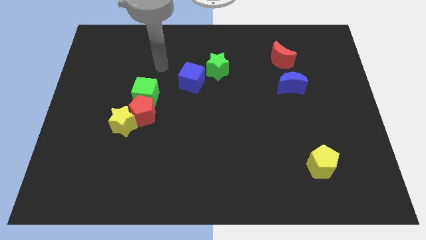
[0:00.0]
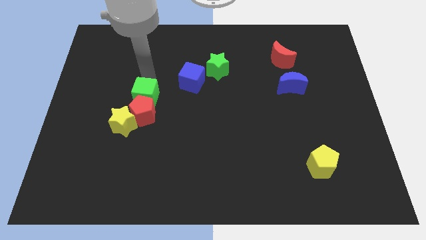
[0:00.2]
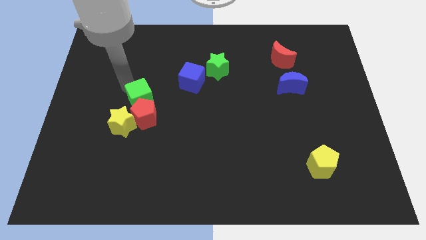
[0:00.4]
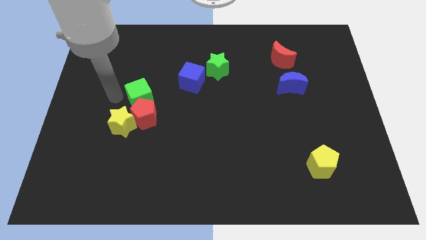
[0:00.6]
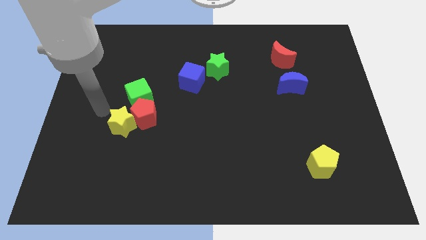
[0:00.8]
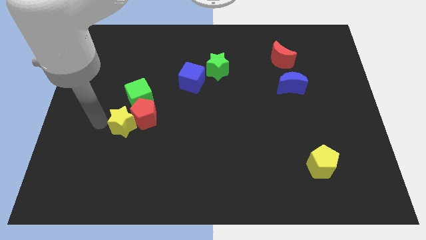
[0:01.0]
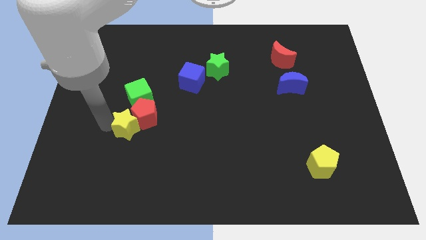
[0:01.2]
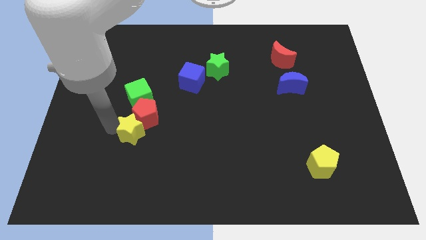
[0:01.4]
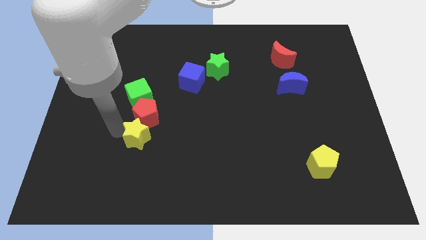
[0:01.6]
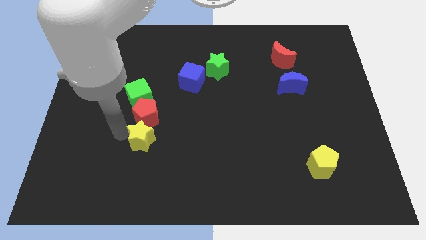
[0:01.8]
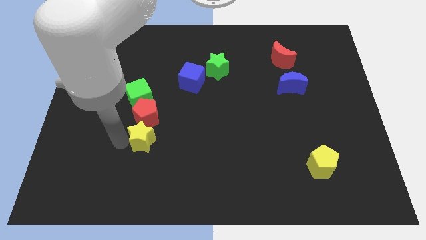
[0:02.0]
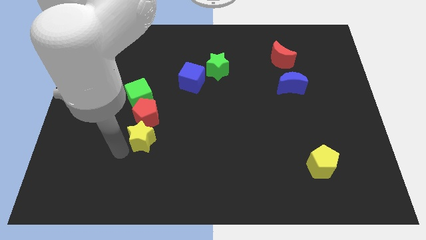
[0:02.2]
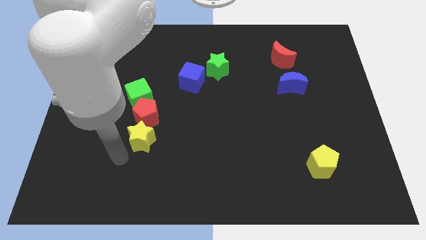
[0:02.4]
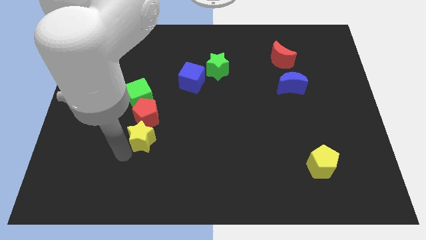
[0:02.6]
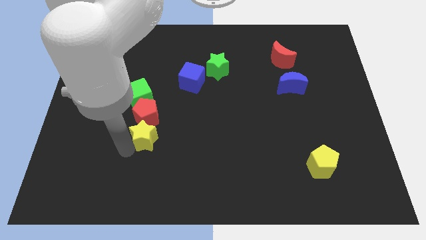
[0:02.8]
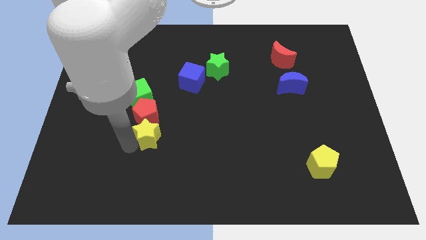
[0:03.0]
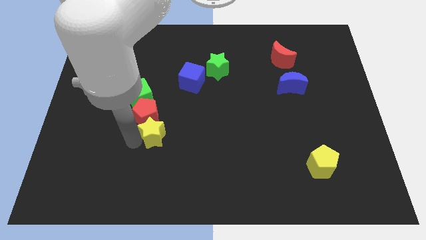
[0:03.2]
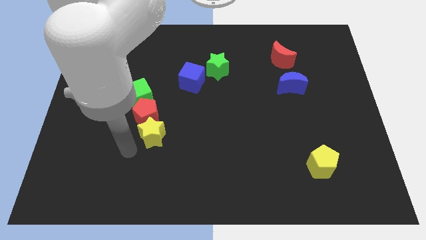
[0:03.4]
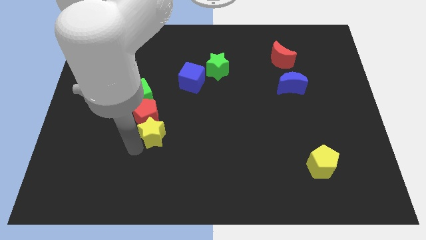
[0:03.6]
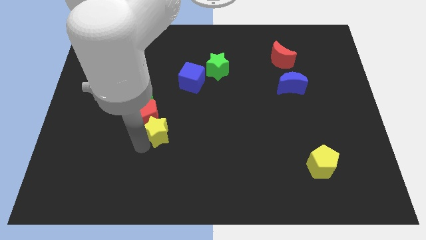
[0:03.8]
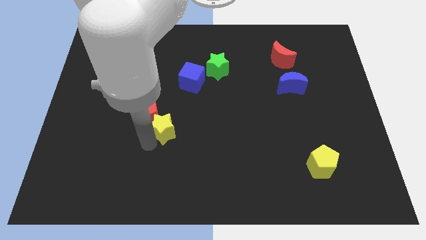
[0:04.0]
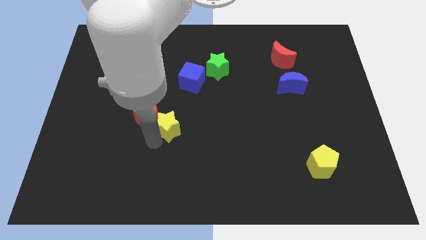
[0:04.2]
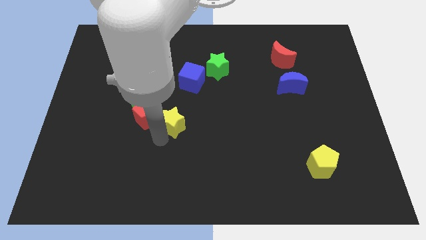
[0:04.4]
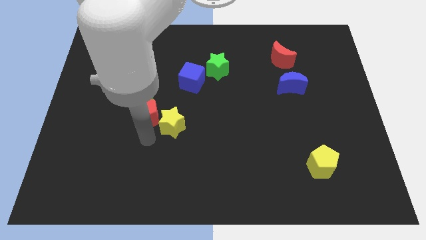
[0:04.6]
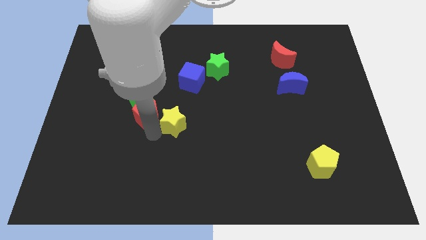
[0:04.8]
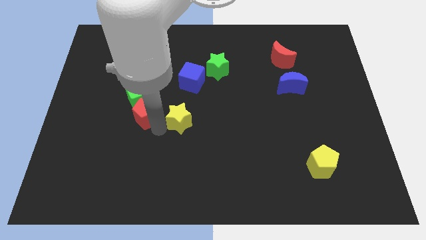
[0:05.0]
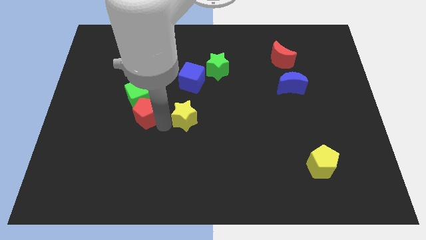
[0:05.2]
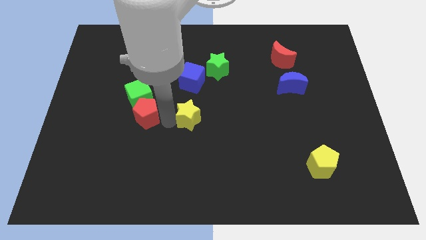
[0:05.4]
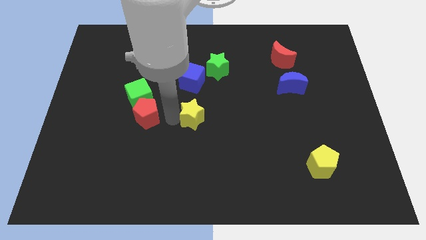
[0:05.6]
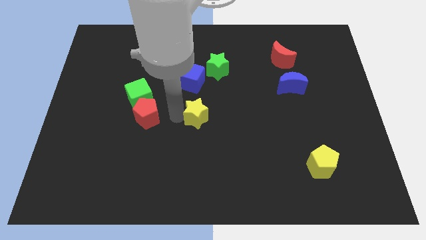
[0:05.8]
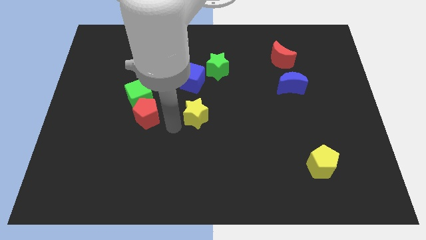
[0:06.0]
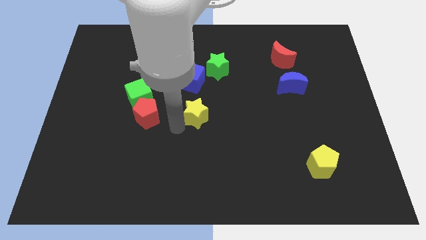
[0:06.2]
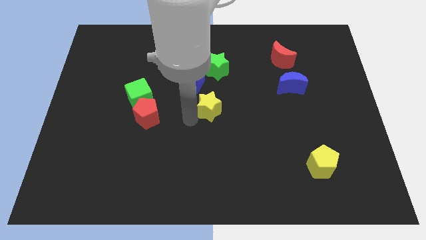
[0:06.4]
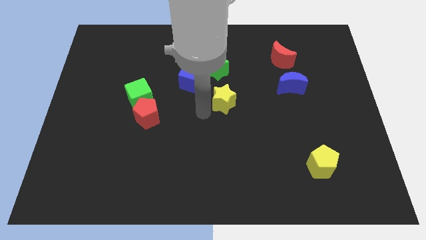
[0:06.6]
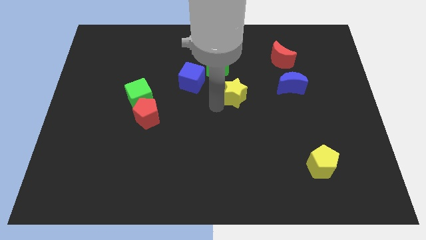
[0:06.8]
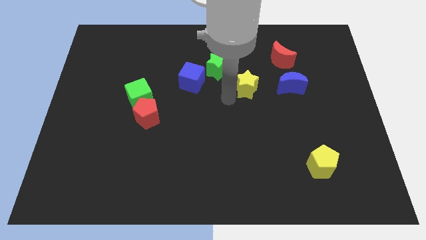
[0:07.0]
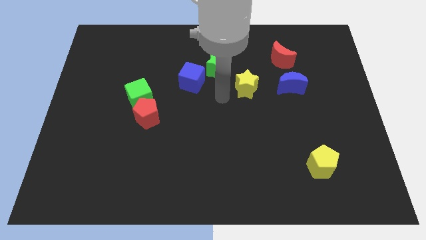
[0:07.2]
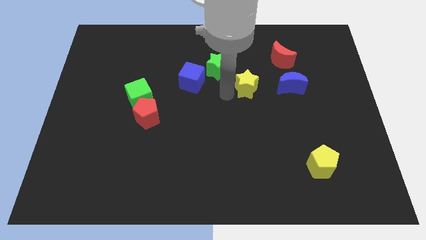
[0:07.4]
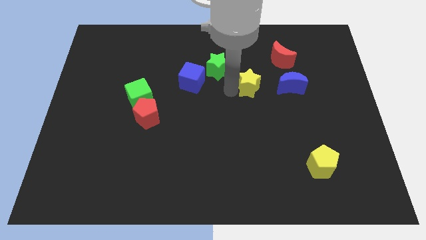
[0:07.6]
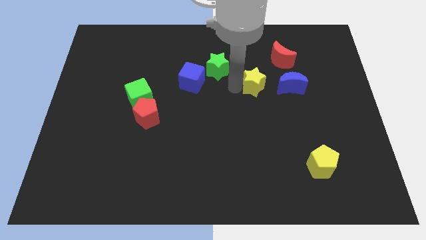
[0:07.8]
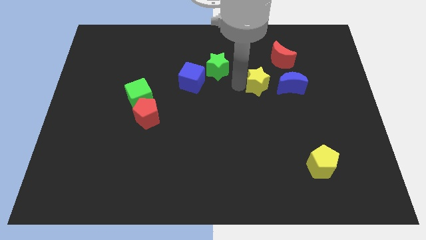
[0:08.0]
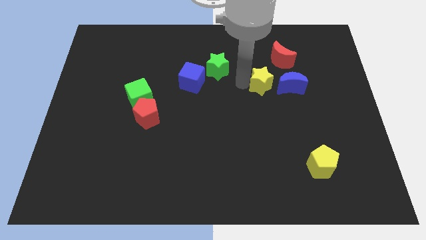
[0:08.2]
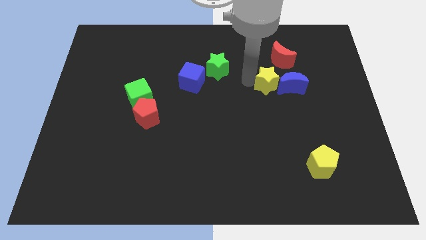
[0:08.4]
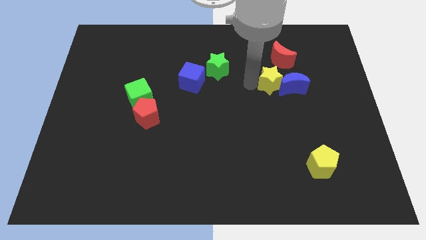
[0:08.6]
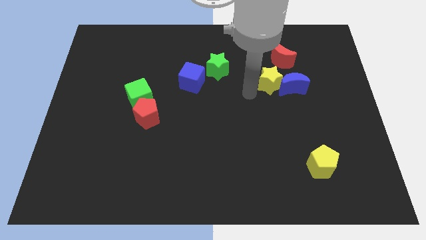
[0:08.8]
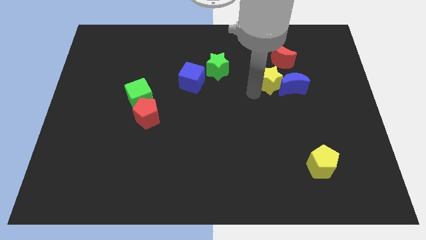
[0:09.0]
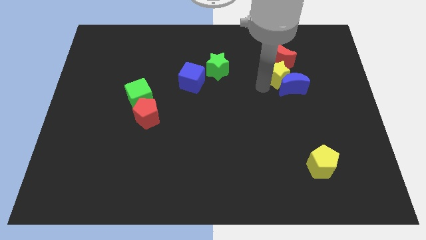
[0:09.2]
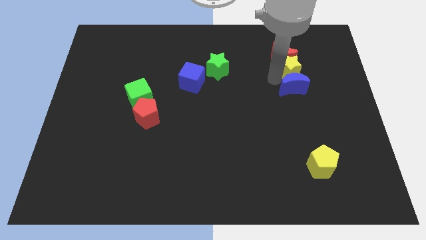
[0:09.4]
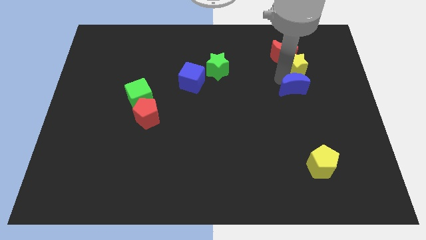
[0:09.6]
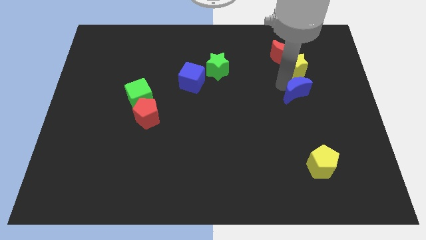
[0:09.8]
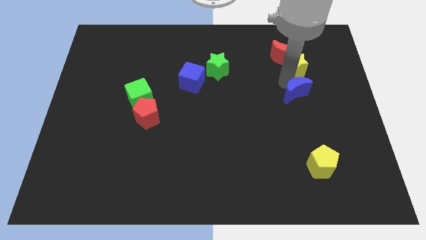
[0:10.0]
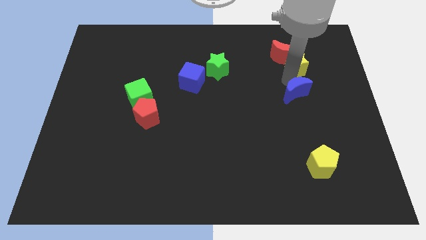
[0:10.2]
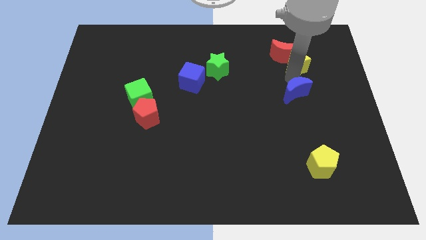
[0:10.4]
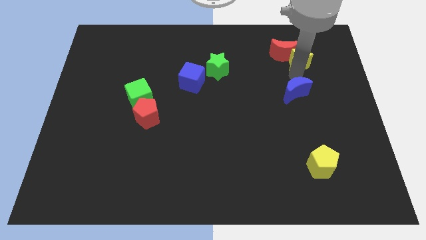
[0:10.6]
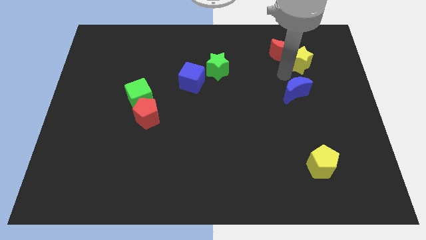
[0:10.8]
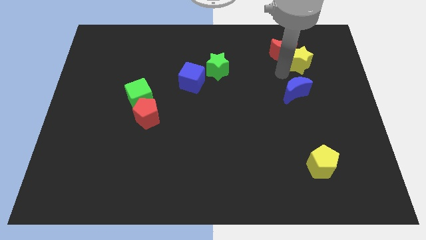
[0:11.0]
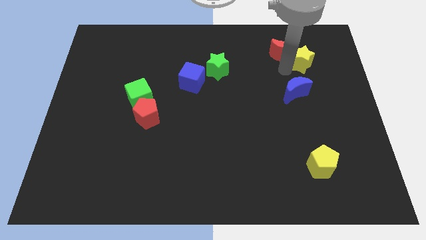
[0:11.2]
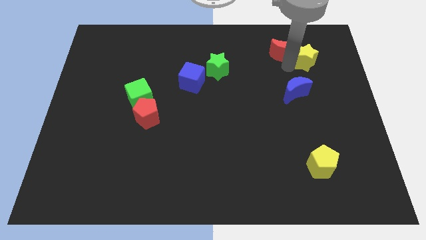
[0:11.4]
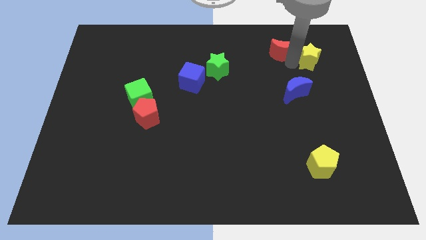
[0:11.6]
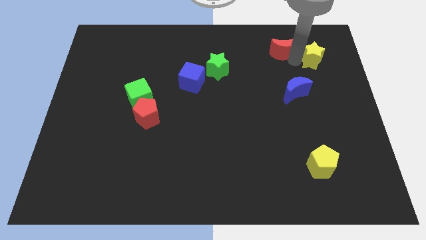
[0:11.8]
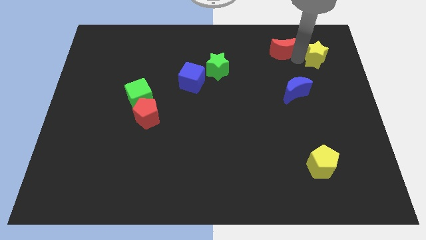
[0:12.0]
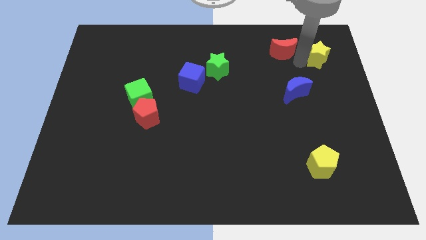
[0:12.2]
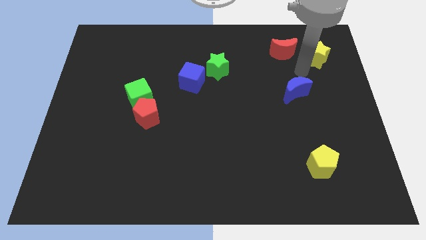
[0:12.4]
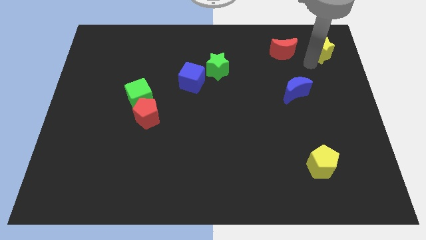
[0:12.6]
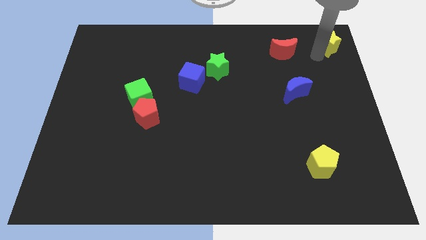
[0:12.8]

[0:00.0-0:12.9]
move the yellow star to the top right
